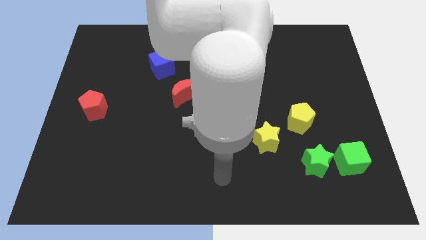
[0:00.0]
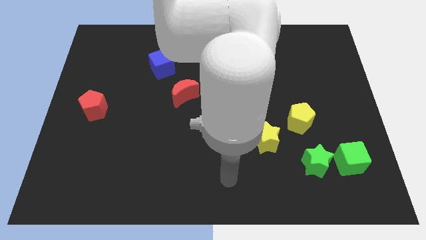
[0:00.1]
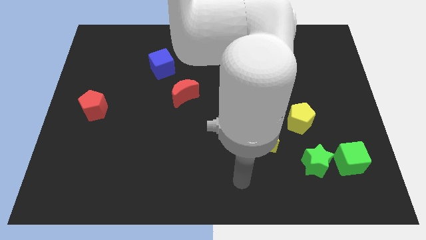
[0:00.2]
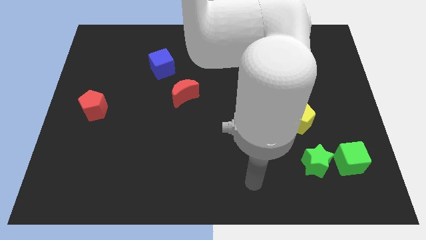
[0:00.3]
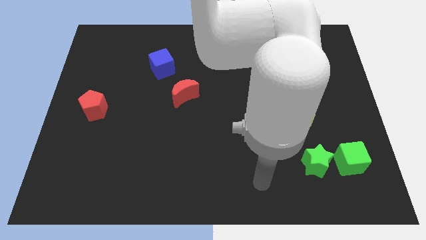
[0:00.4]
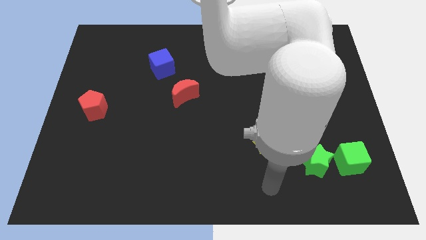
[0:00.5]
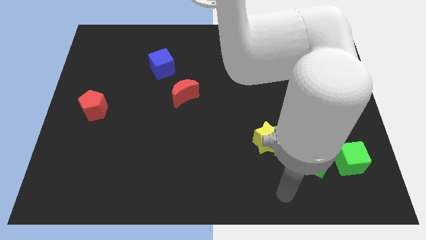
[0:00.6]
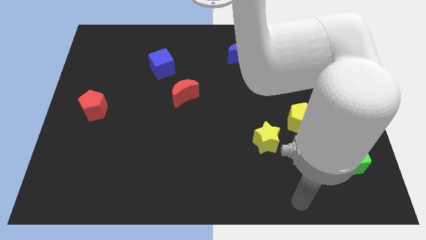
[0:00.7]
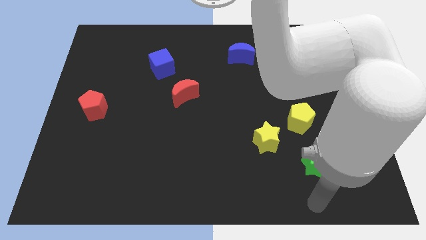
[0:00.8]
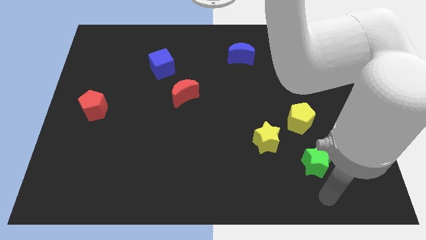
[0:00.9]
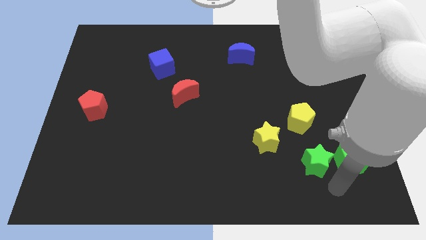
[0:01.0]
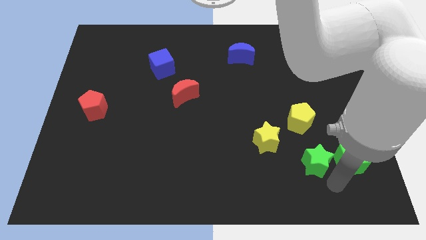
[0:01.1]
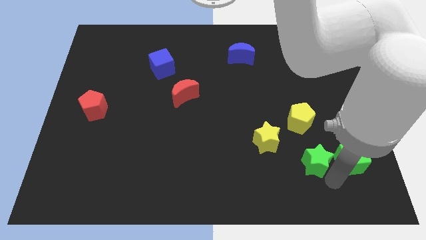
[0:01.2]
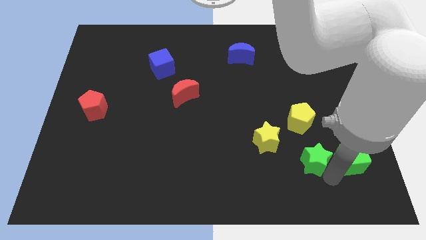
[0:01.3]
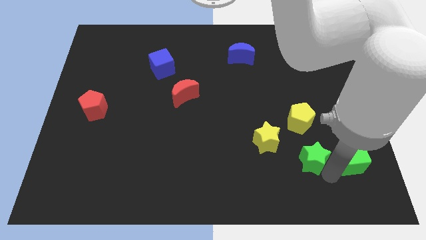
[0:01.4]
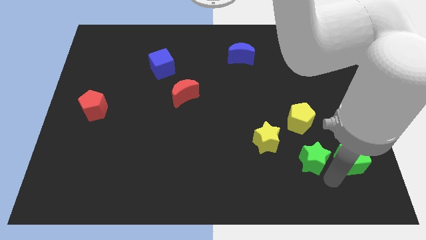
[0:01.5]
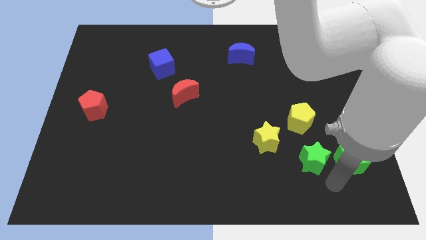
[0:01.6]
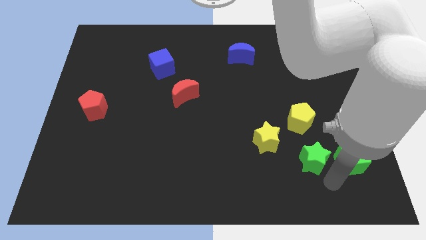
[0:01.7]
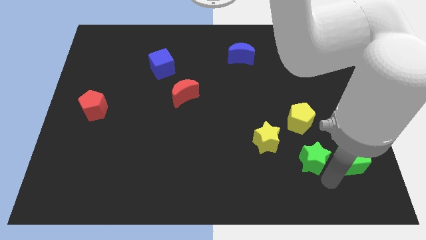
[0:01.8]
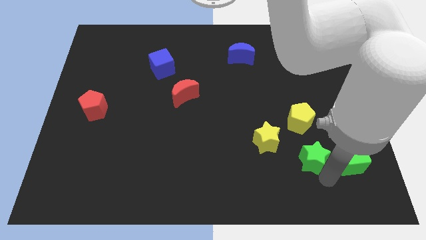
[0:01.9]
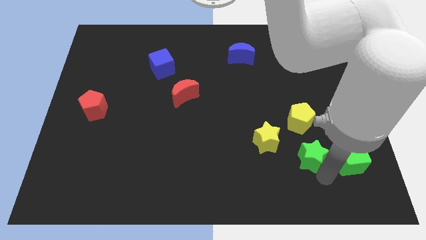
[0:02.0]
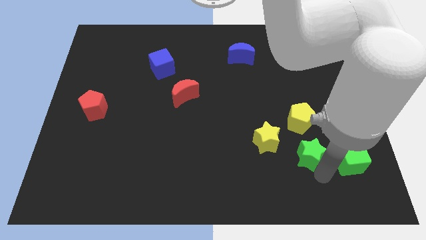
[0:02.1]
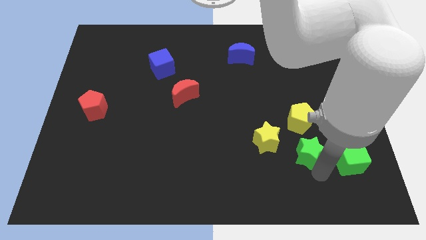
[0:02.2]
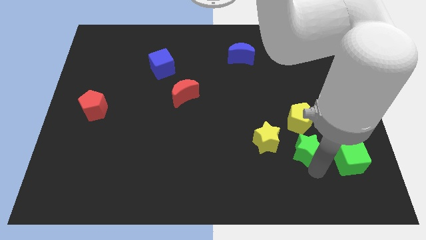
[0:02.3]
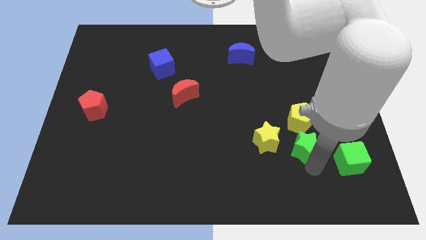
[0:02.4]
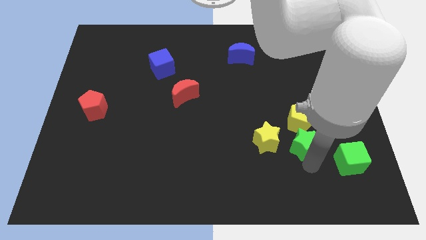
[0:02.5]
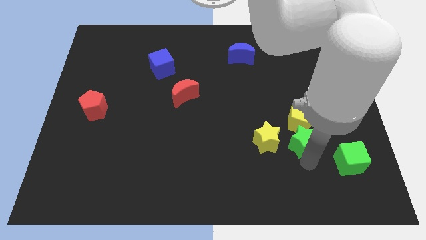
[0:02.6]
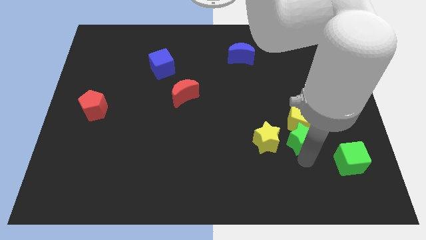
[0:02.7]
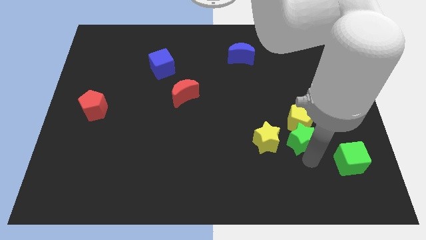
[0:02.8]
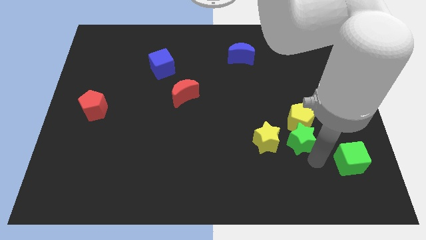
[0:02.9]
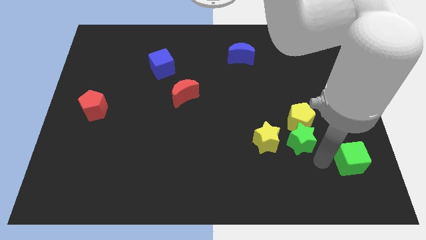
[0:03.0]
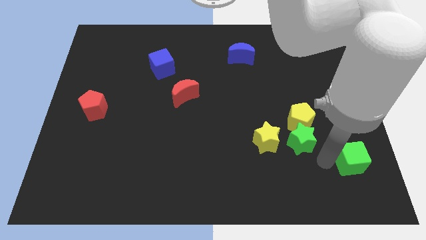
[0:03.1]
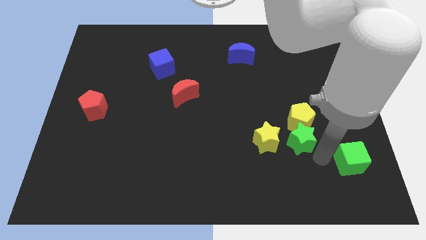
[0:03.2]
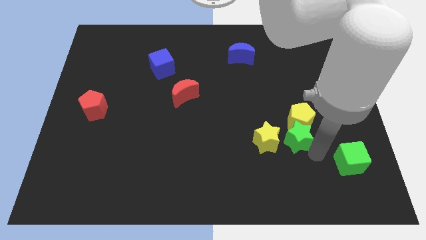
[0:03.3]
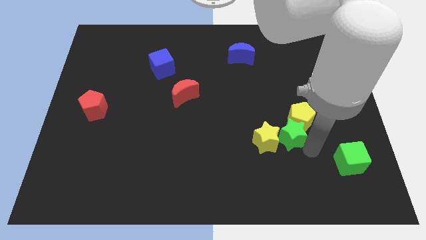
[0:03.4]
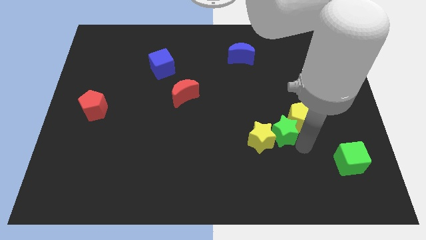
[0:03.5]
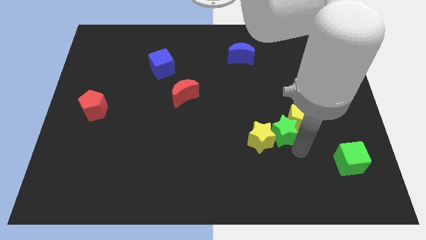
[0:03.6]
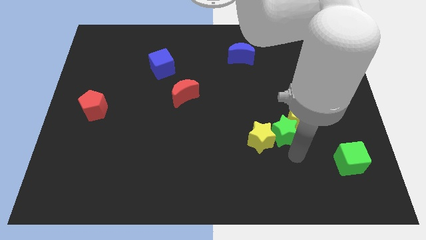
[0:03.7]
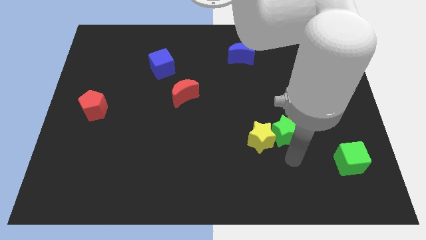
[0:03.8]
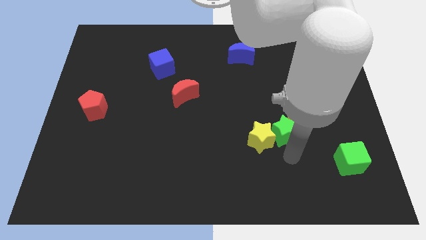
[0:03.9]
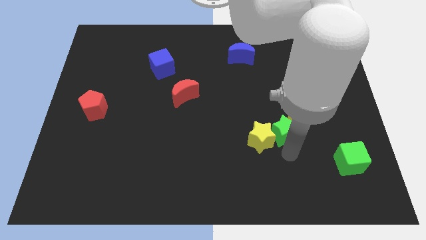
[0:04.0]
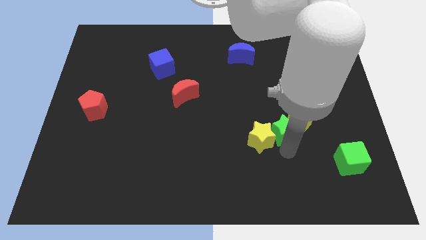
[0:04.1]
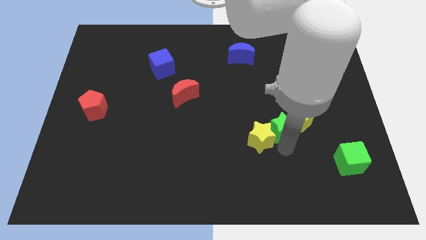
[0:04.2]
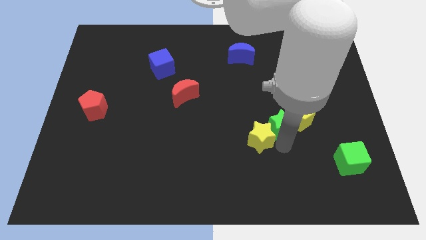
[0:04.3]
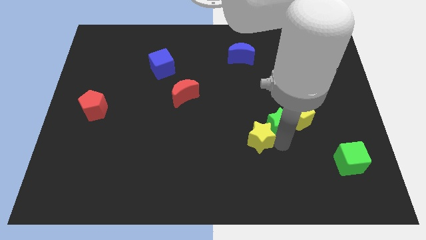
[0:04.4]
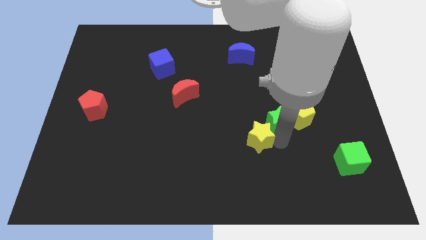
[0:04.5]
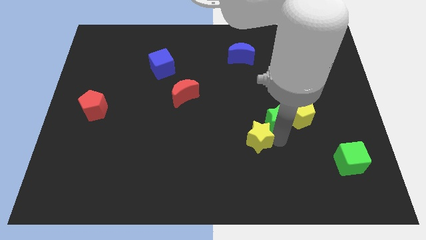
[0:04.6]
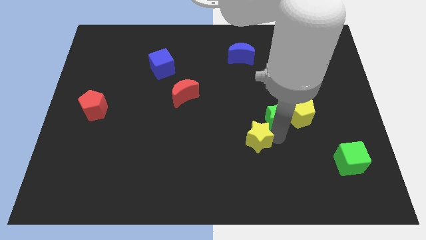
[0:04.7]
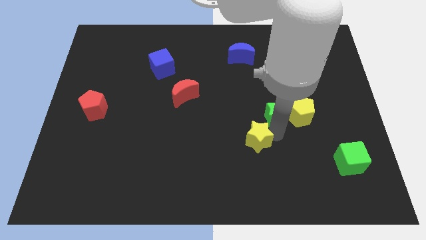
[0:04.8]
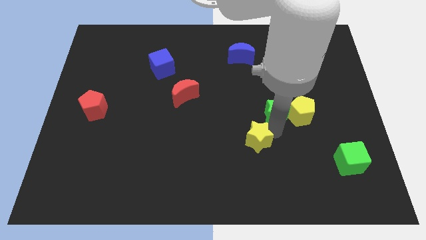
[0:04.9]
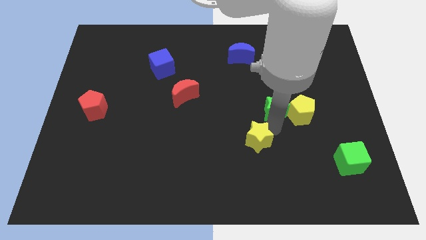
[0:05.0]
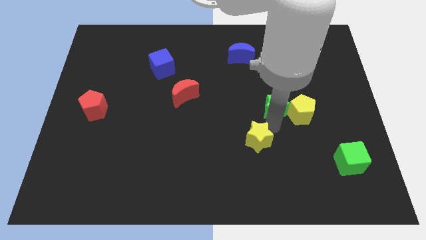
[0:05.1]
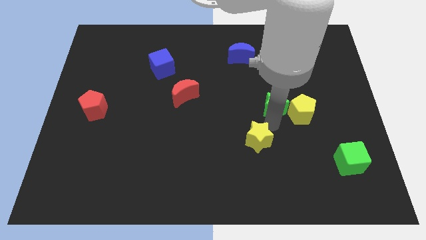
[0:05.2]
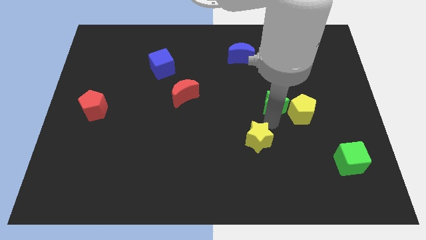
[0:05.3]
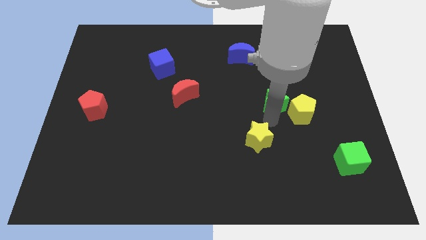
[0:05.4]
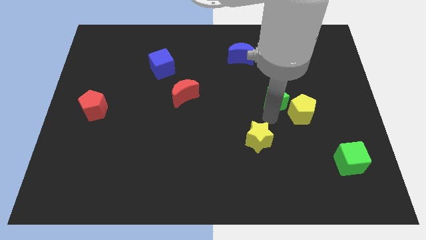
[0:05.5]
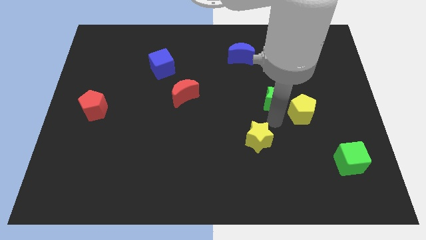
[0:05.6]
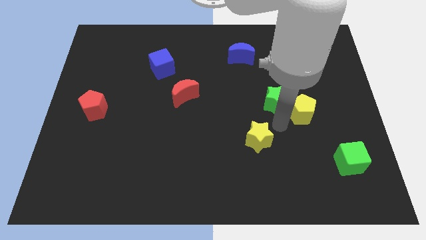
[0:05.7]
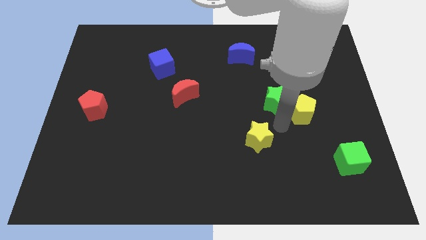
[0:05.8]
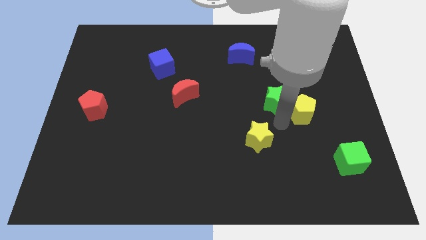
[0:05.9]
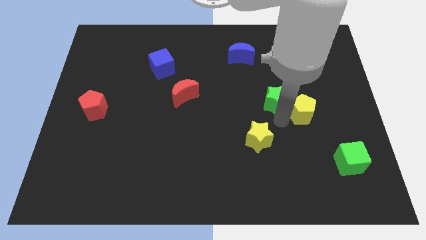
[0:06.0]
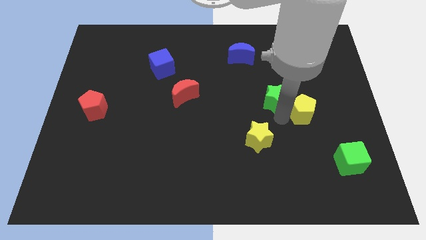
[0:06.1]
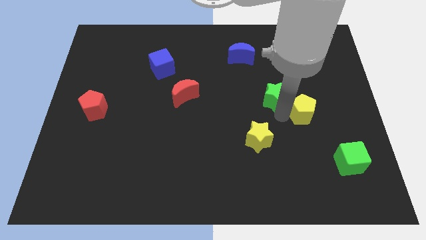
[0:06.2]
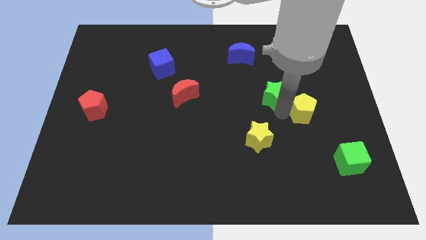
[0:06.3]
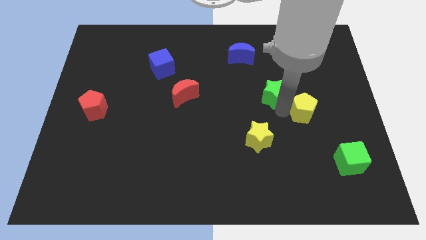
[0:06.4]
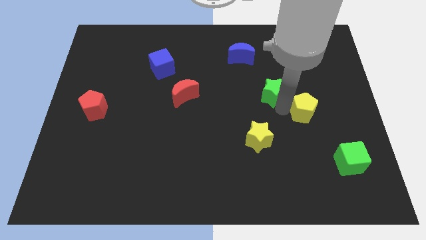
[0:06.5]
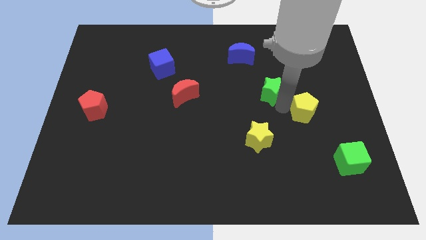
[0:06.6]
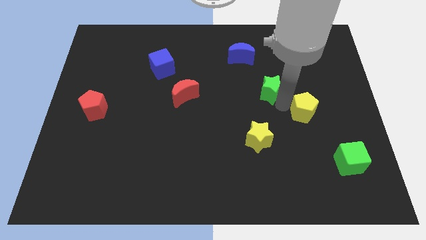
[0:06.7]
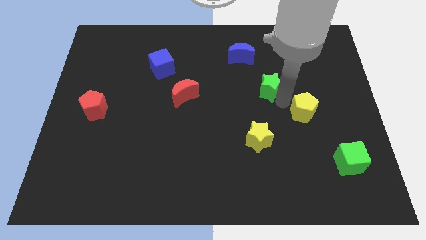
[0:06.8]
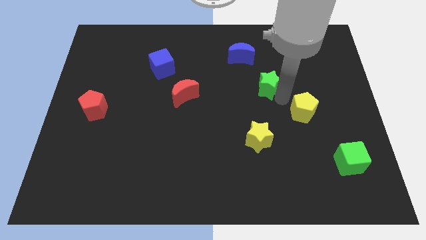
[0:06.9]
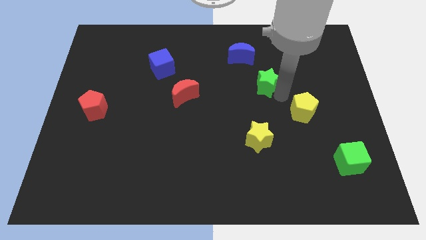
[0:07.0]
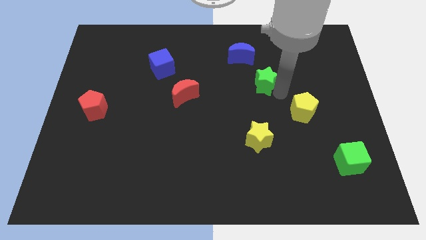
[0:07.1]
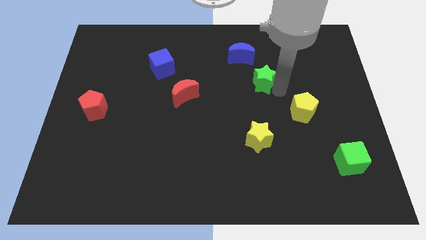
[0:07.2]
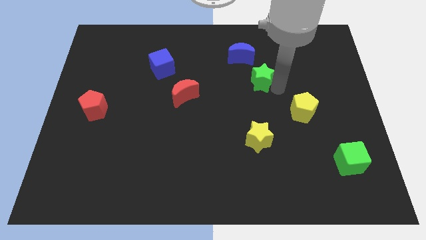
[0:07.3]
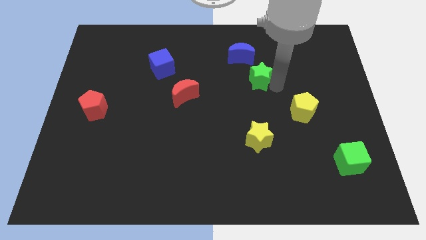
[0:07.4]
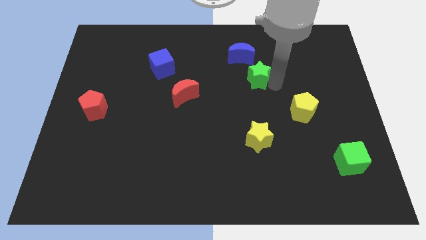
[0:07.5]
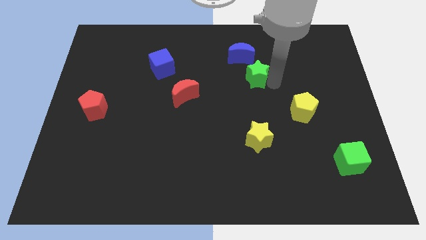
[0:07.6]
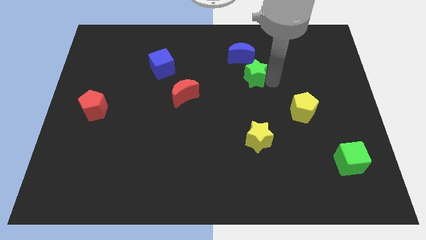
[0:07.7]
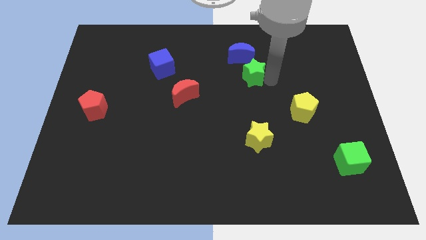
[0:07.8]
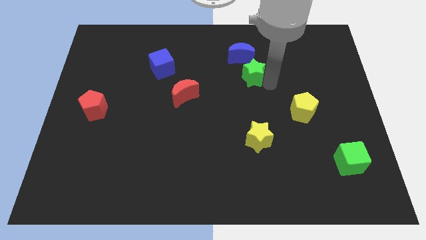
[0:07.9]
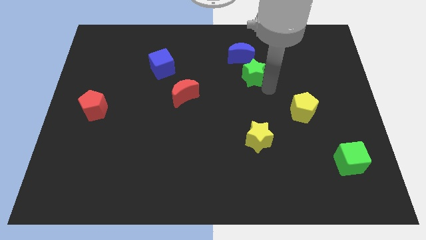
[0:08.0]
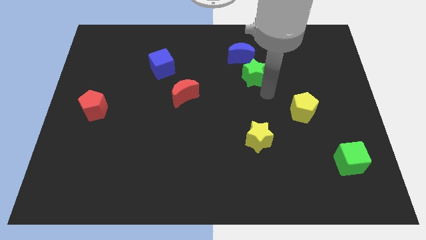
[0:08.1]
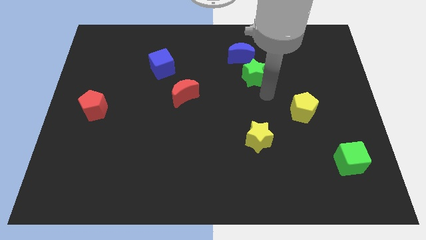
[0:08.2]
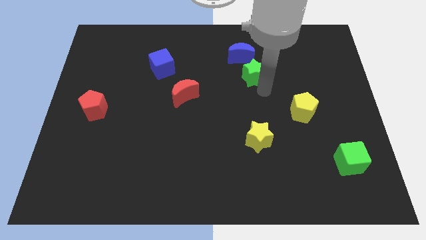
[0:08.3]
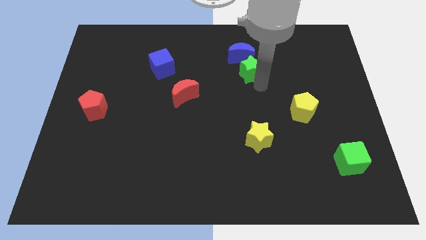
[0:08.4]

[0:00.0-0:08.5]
move the green star close to the blue moon
